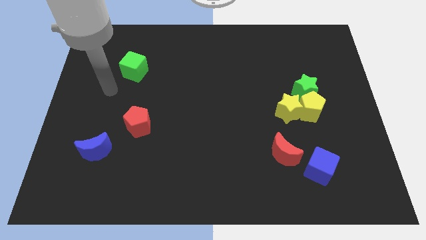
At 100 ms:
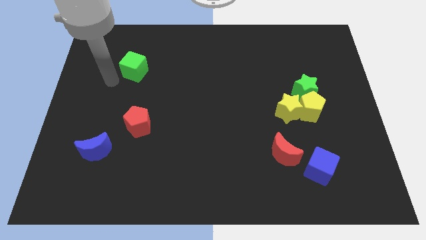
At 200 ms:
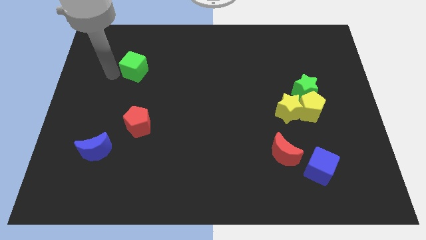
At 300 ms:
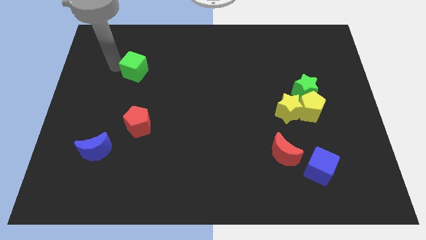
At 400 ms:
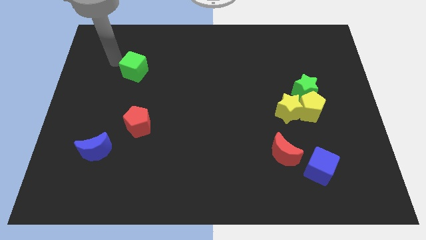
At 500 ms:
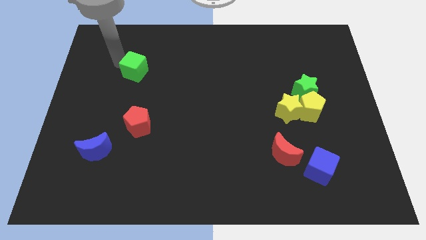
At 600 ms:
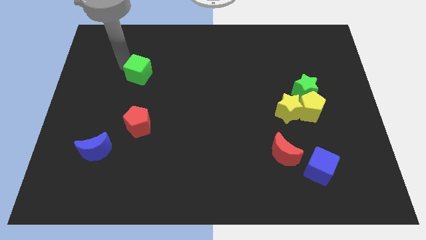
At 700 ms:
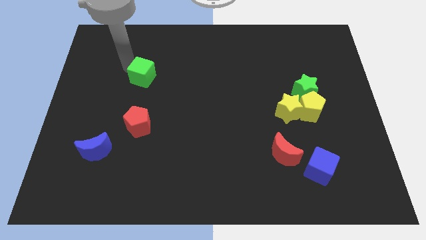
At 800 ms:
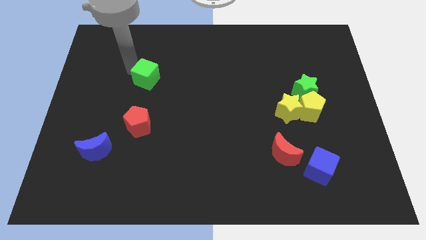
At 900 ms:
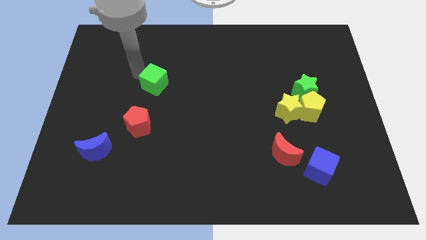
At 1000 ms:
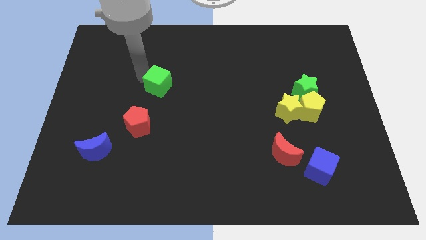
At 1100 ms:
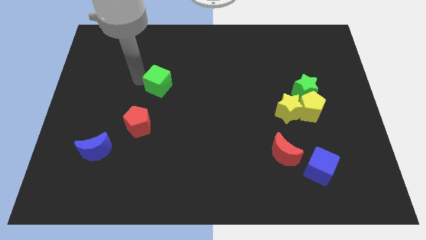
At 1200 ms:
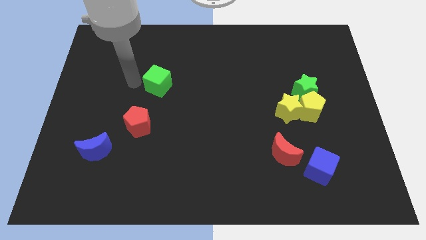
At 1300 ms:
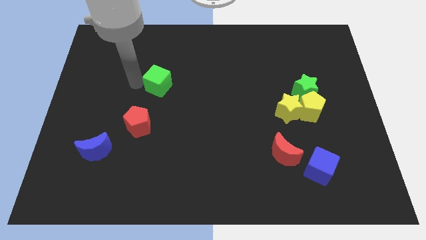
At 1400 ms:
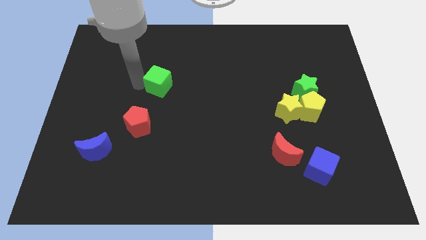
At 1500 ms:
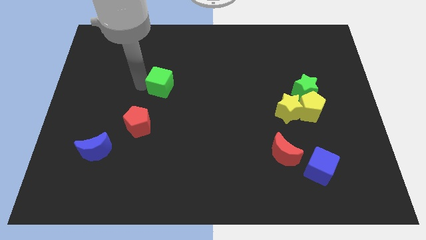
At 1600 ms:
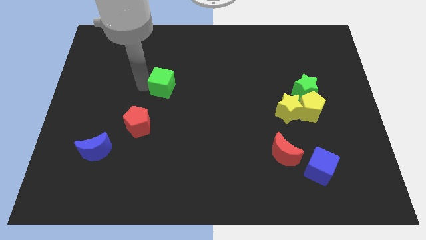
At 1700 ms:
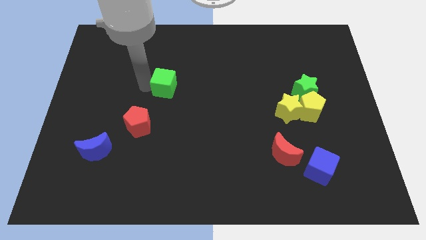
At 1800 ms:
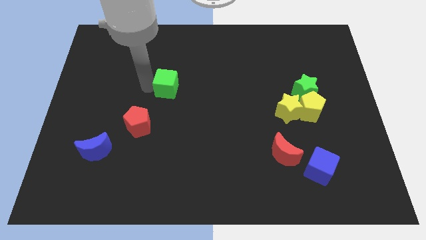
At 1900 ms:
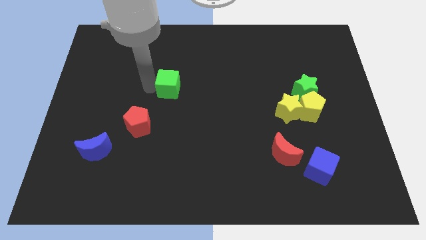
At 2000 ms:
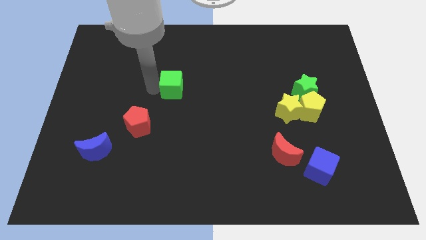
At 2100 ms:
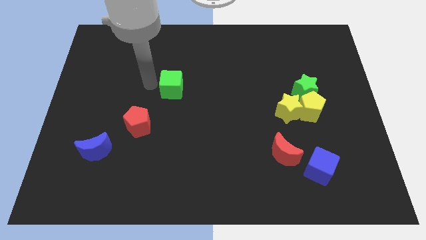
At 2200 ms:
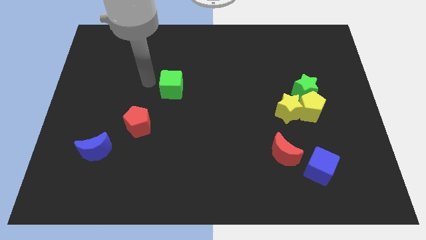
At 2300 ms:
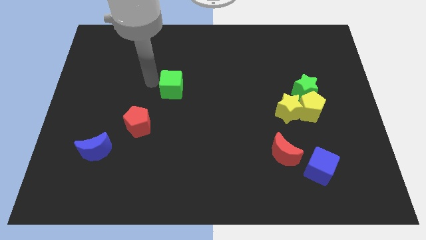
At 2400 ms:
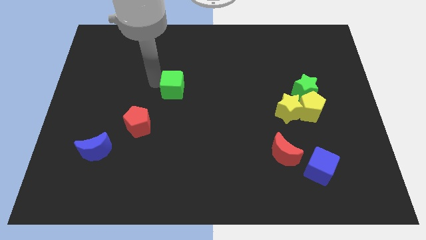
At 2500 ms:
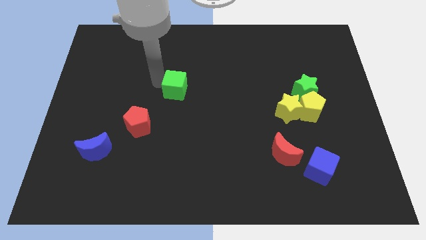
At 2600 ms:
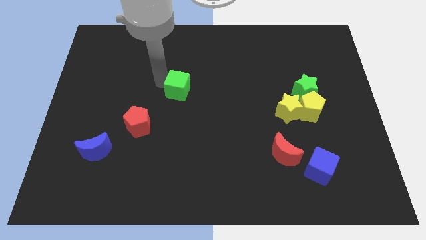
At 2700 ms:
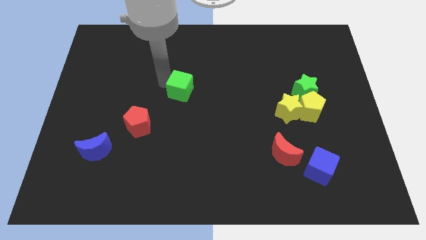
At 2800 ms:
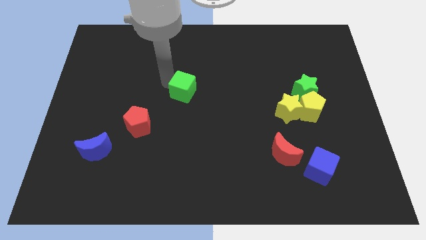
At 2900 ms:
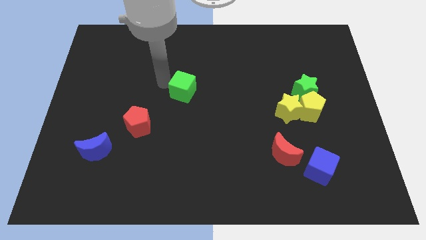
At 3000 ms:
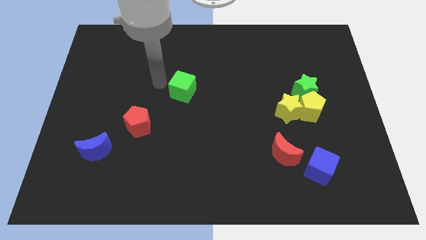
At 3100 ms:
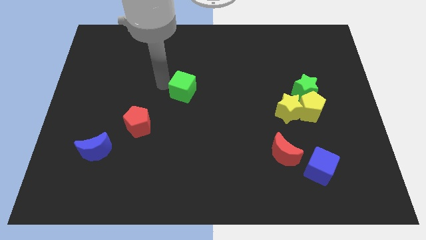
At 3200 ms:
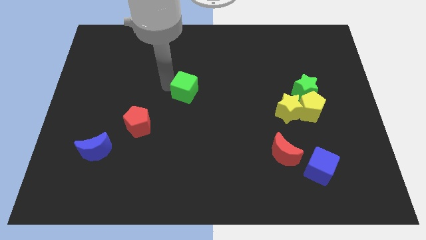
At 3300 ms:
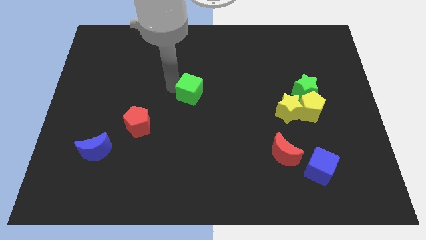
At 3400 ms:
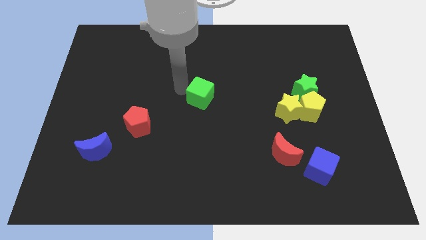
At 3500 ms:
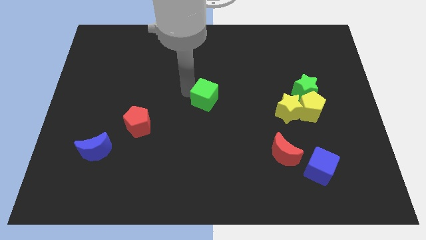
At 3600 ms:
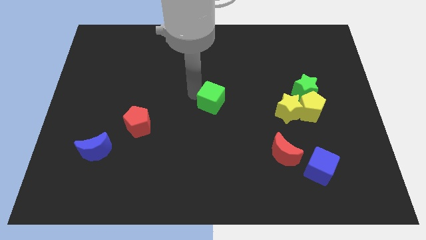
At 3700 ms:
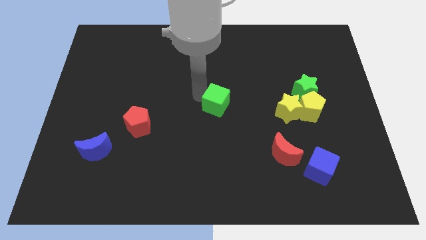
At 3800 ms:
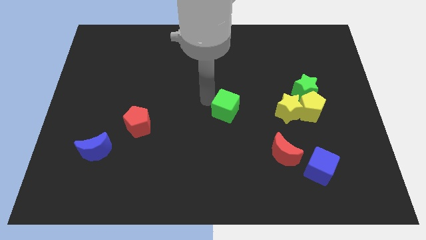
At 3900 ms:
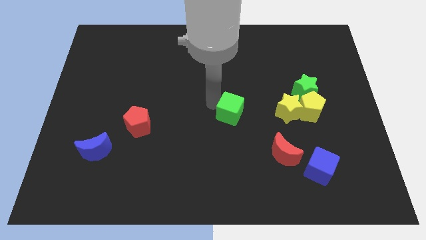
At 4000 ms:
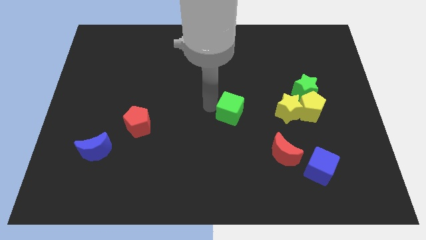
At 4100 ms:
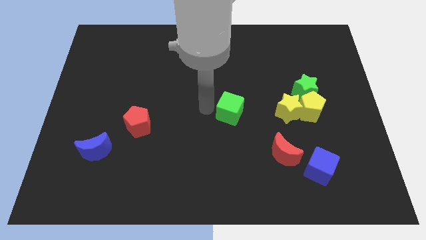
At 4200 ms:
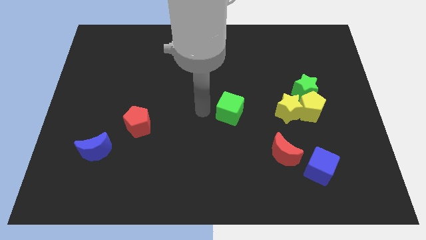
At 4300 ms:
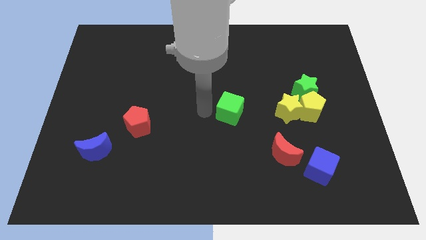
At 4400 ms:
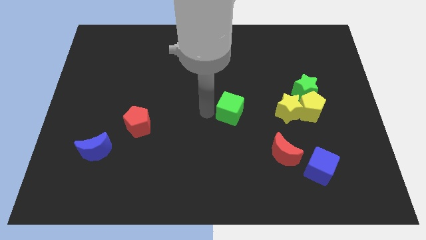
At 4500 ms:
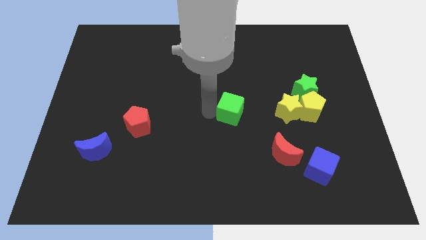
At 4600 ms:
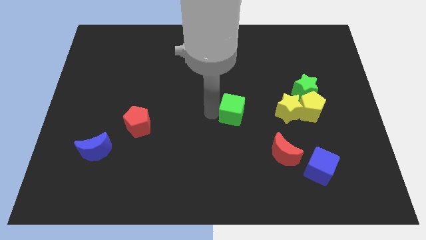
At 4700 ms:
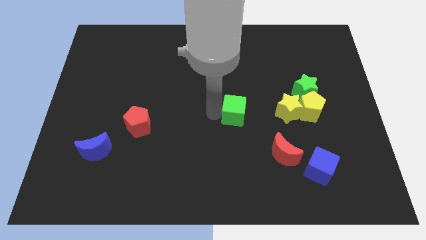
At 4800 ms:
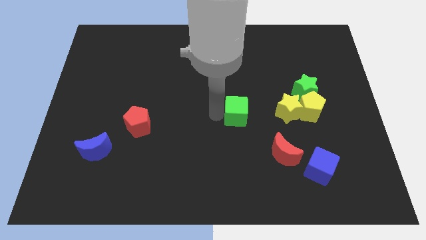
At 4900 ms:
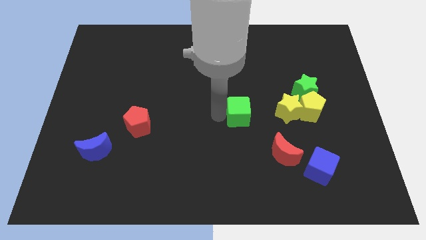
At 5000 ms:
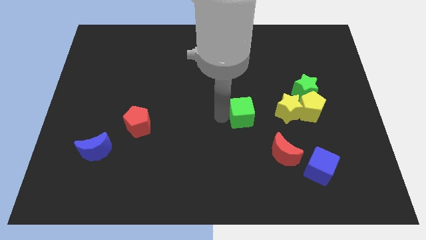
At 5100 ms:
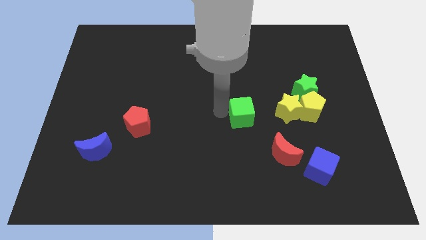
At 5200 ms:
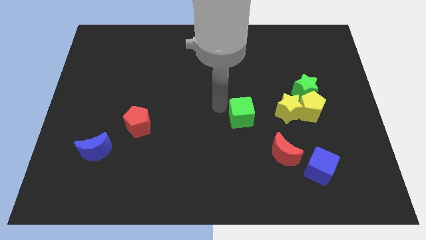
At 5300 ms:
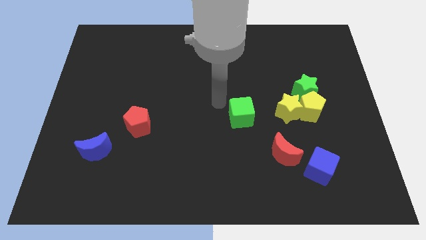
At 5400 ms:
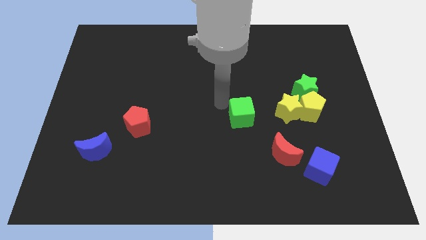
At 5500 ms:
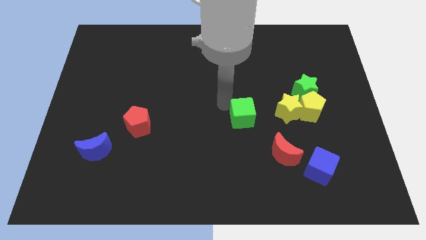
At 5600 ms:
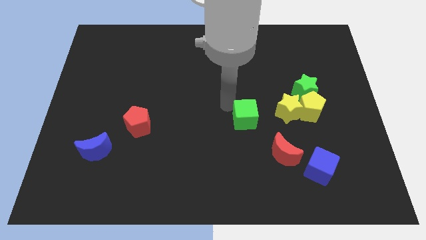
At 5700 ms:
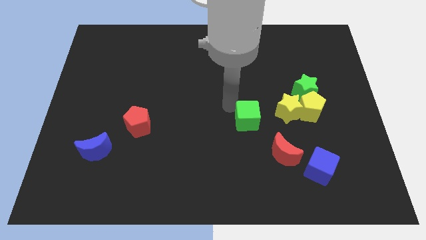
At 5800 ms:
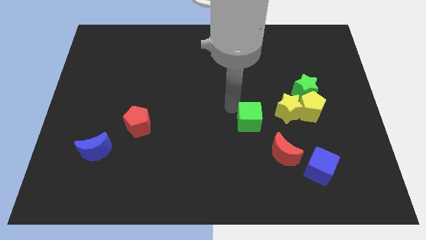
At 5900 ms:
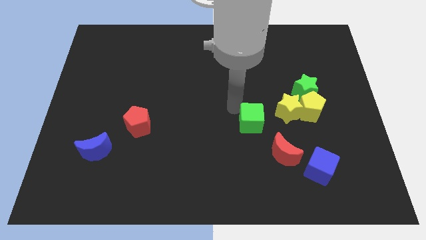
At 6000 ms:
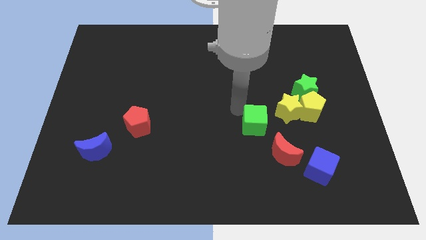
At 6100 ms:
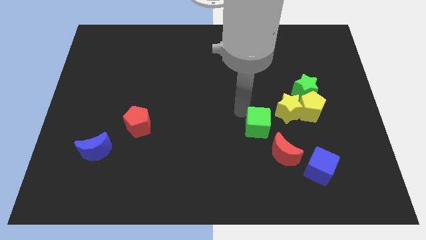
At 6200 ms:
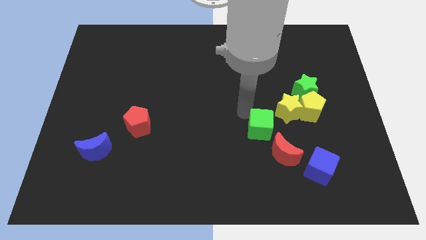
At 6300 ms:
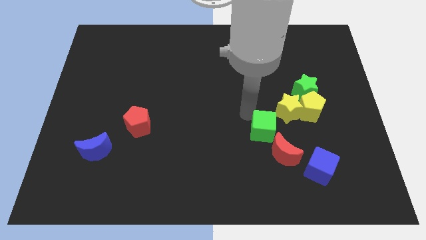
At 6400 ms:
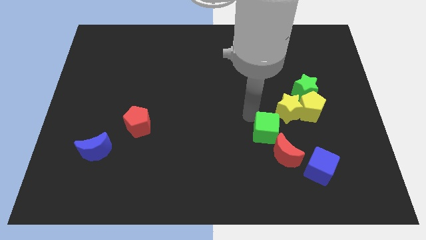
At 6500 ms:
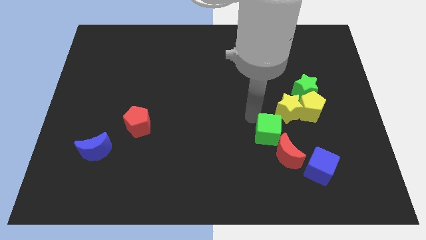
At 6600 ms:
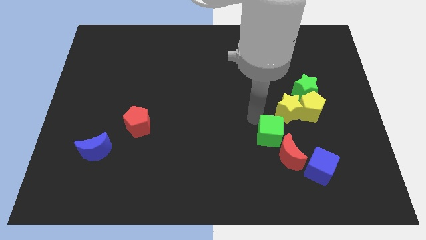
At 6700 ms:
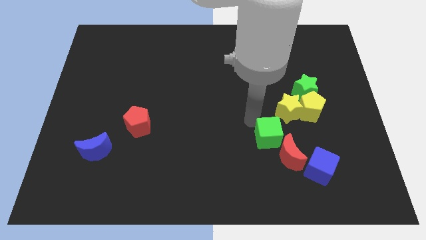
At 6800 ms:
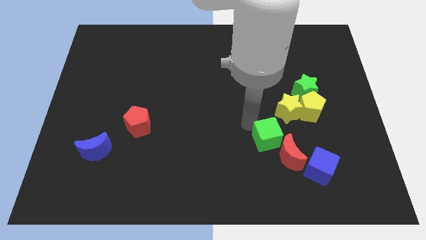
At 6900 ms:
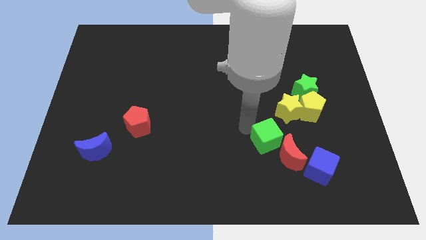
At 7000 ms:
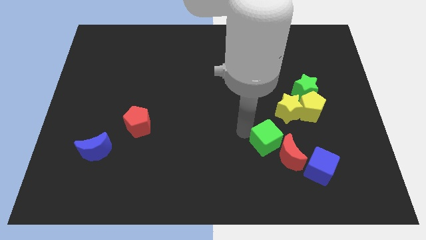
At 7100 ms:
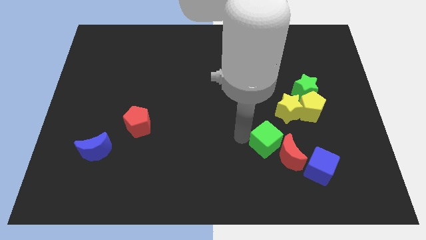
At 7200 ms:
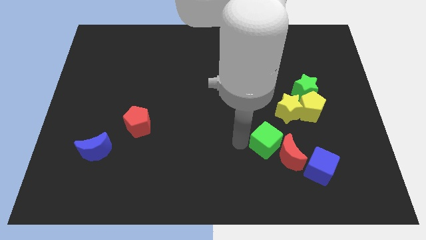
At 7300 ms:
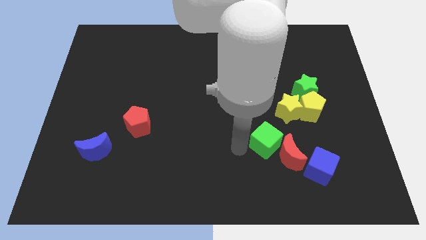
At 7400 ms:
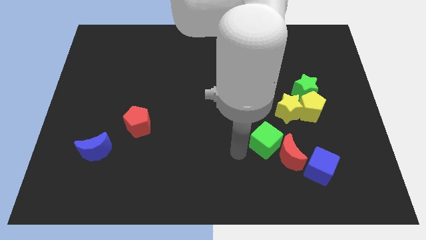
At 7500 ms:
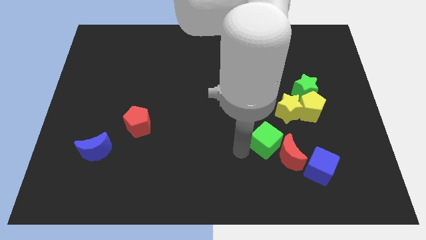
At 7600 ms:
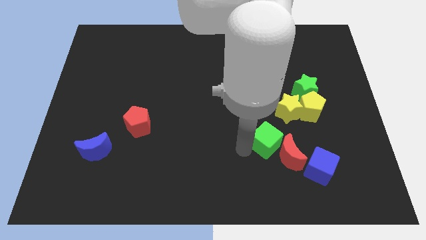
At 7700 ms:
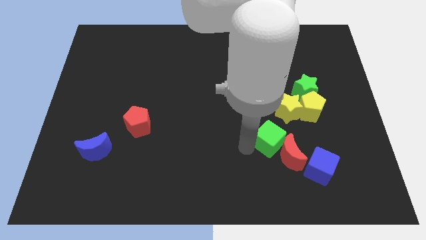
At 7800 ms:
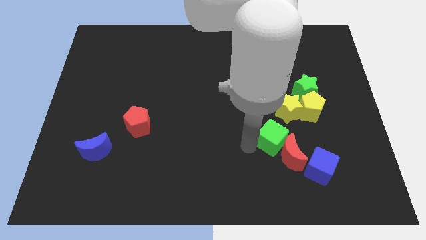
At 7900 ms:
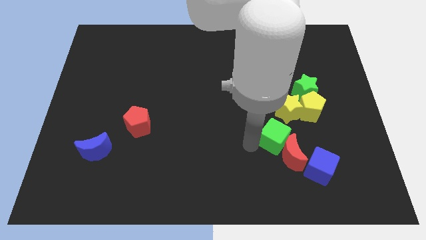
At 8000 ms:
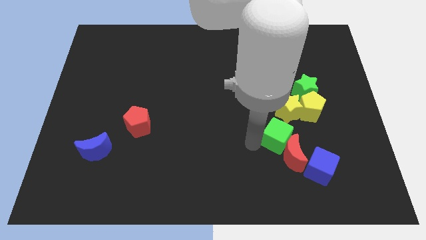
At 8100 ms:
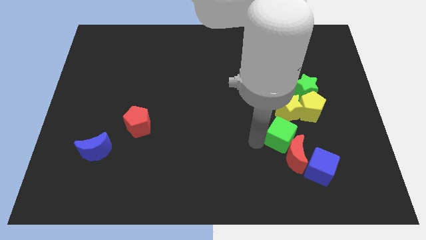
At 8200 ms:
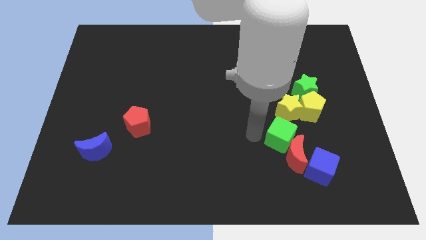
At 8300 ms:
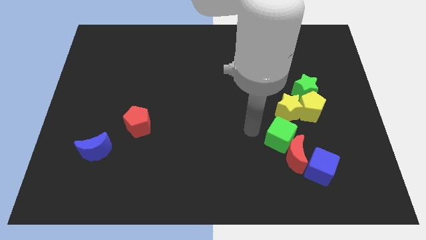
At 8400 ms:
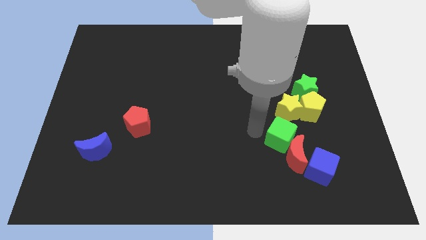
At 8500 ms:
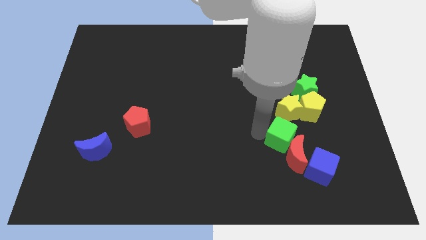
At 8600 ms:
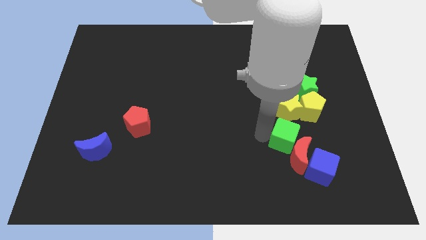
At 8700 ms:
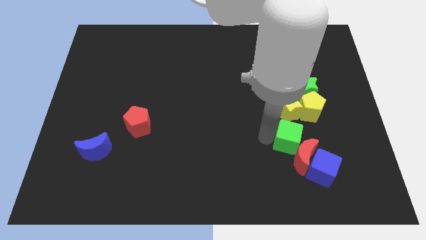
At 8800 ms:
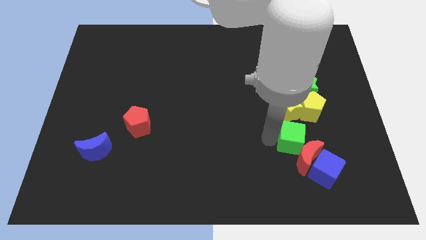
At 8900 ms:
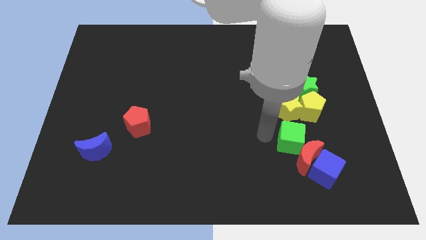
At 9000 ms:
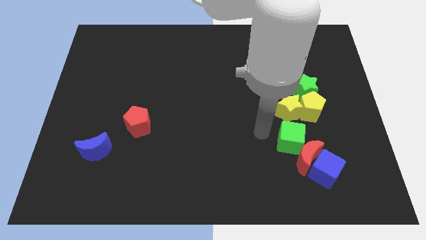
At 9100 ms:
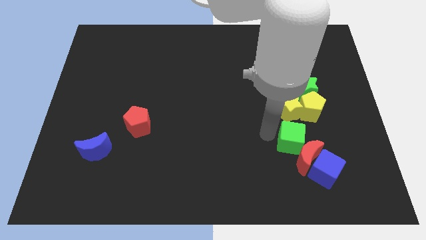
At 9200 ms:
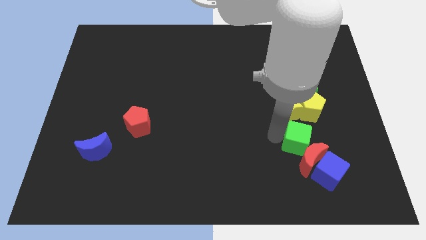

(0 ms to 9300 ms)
move the green cube below the yellow pentagon
